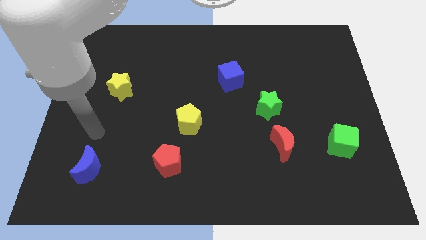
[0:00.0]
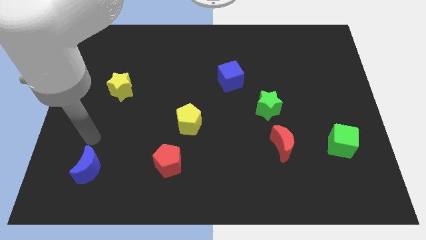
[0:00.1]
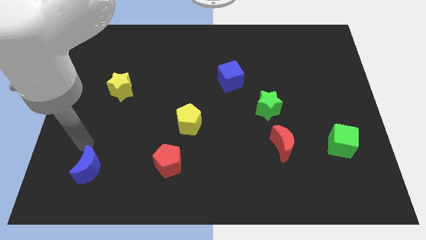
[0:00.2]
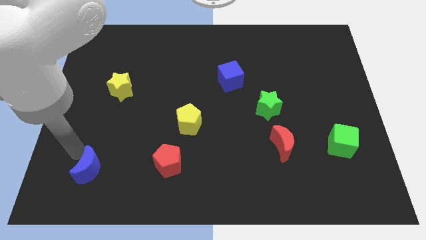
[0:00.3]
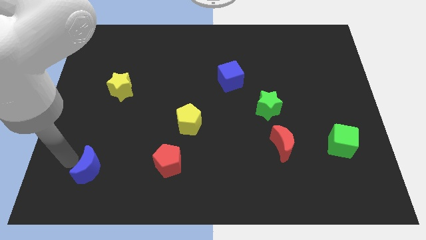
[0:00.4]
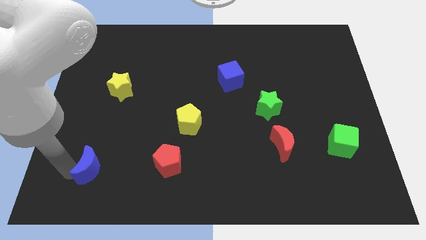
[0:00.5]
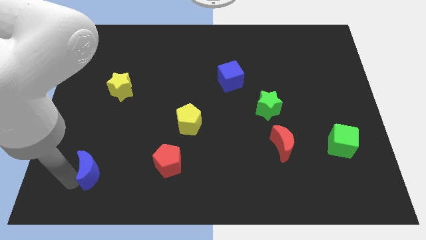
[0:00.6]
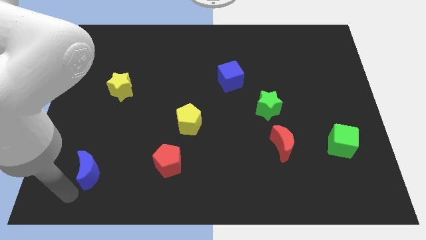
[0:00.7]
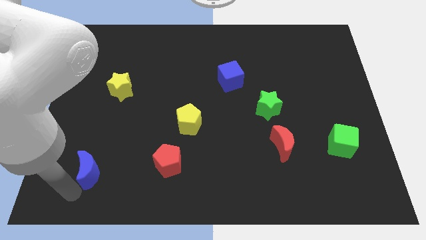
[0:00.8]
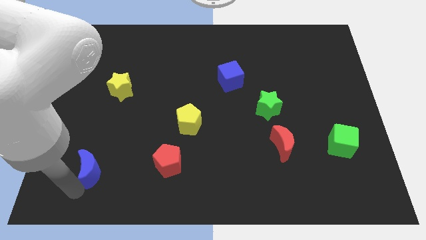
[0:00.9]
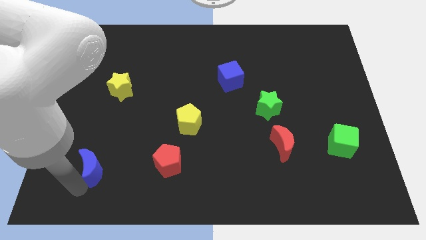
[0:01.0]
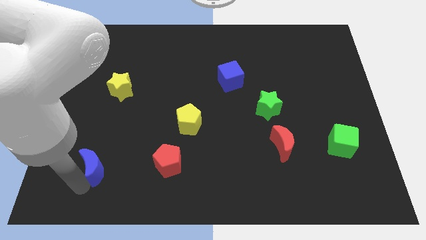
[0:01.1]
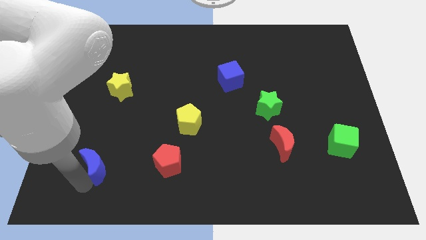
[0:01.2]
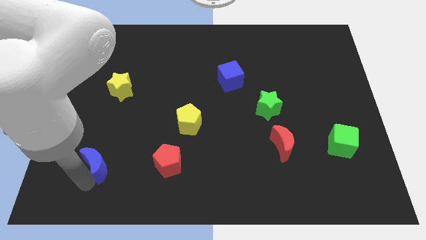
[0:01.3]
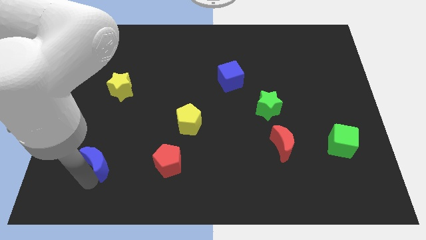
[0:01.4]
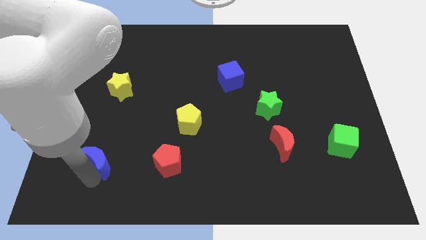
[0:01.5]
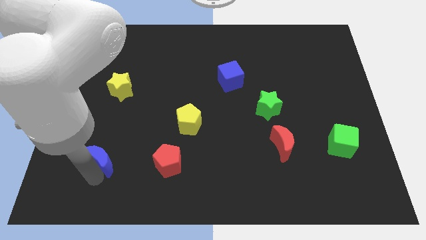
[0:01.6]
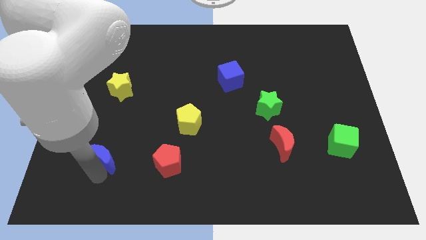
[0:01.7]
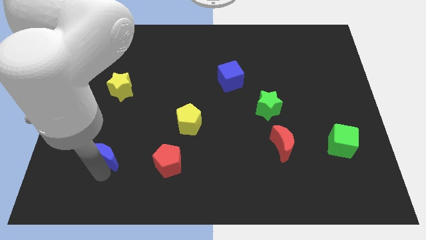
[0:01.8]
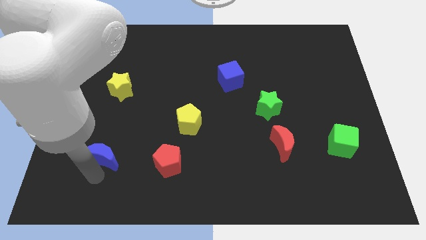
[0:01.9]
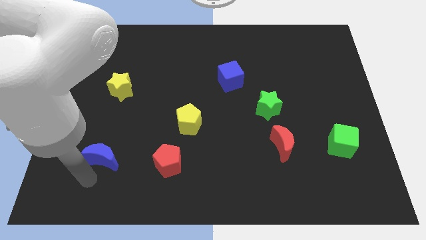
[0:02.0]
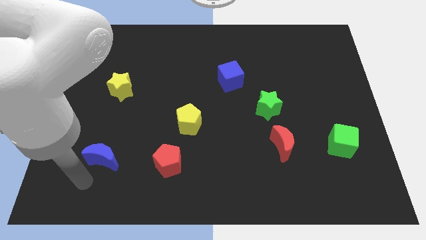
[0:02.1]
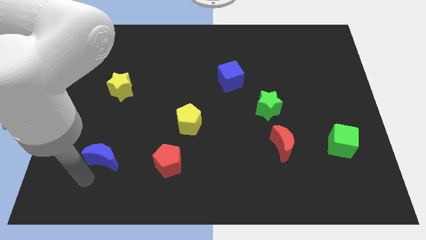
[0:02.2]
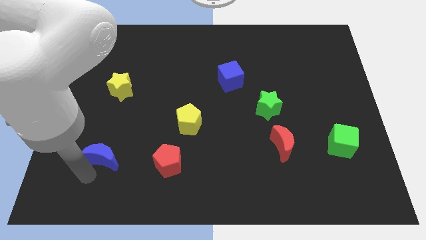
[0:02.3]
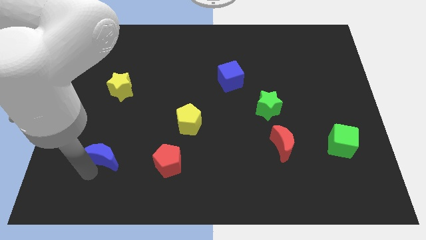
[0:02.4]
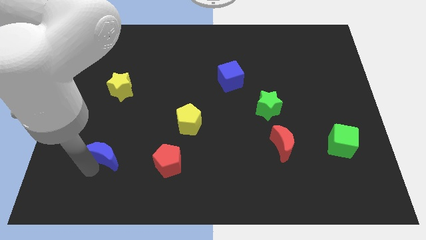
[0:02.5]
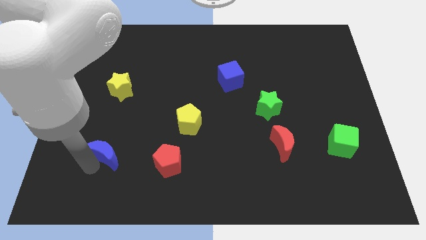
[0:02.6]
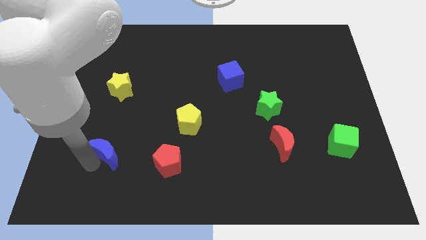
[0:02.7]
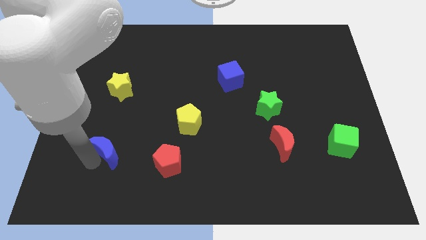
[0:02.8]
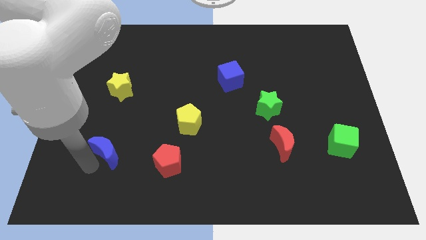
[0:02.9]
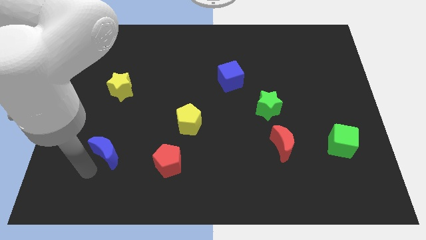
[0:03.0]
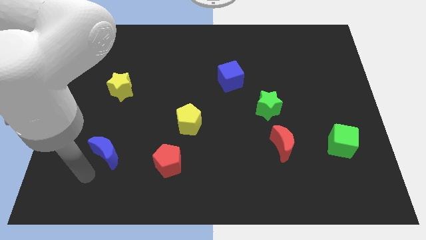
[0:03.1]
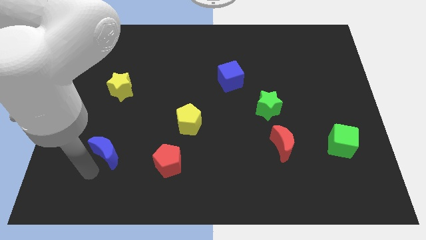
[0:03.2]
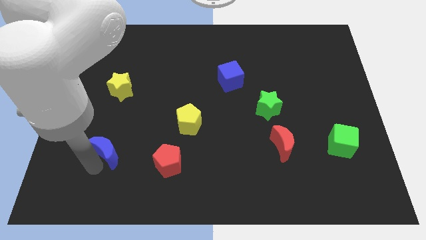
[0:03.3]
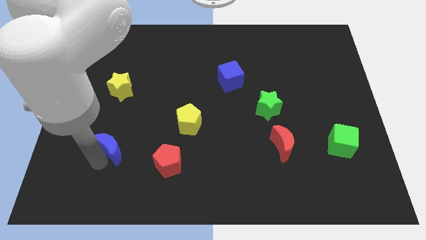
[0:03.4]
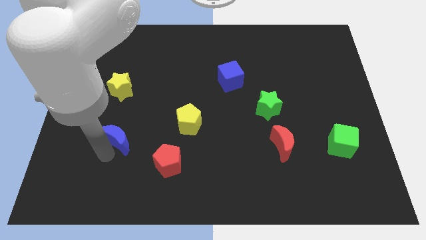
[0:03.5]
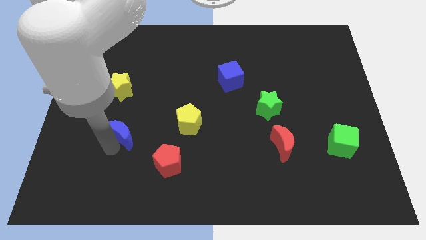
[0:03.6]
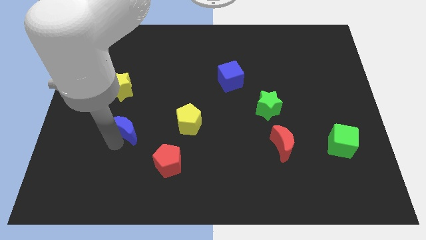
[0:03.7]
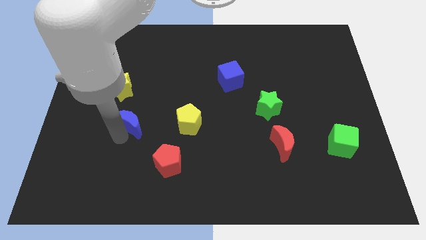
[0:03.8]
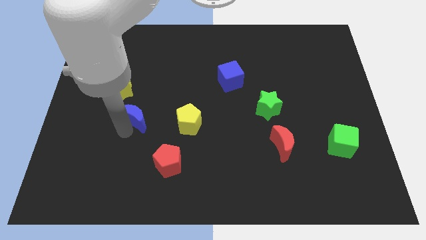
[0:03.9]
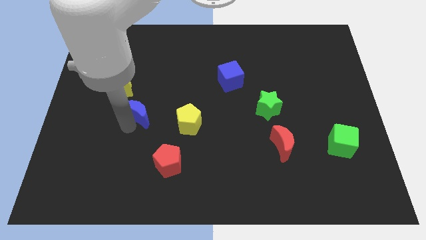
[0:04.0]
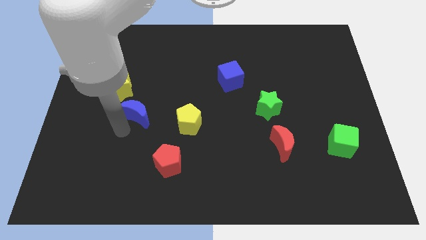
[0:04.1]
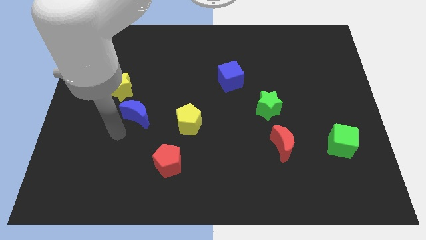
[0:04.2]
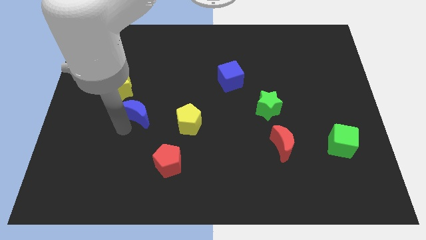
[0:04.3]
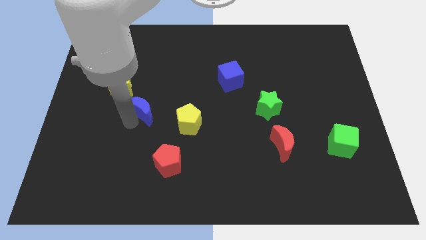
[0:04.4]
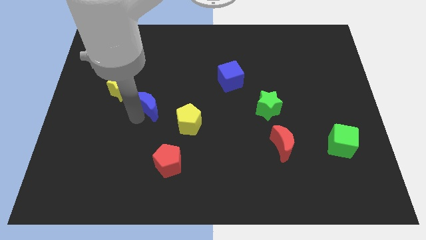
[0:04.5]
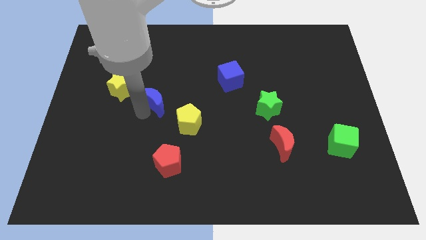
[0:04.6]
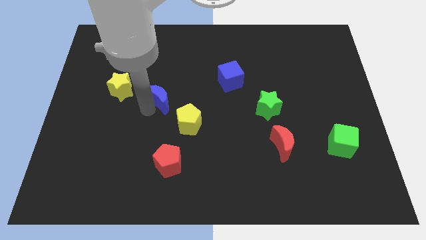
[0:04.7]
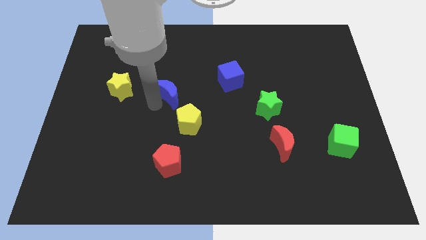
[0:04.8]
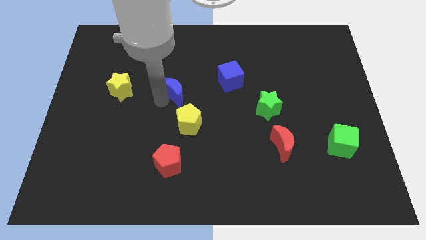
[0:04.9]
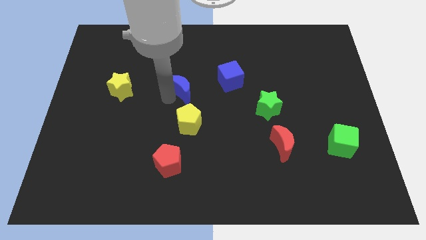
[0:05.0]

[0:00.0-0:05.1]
push the blue moon left of the blue cube

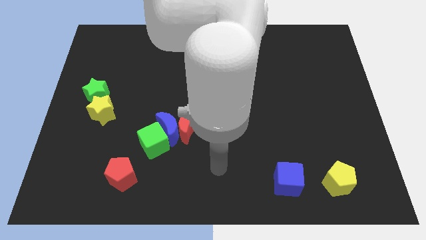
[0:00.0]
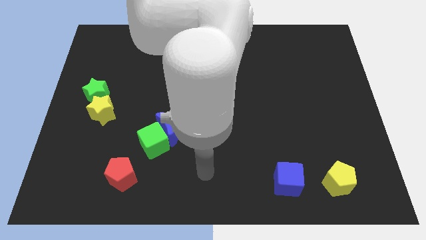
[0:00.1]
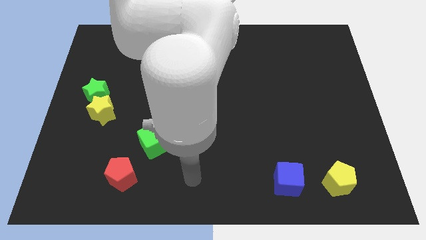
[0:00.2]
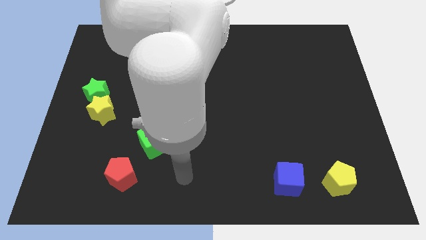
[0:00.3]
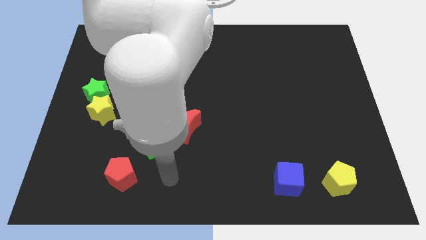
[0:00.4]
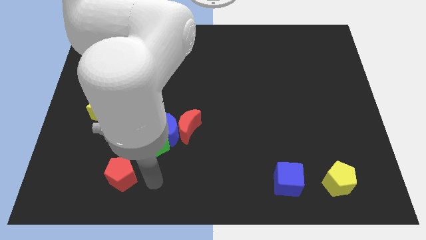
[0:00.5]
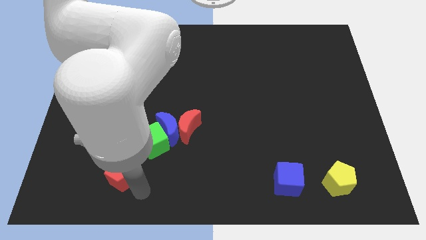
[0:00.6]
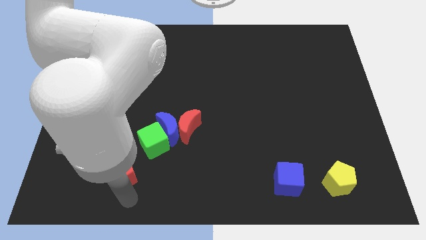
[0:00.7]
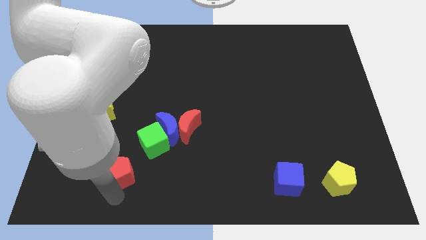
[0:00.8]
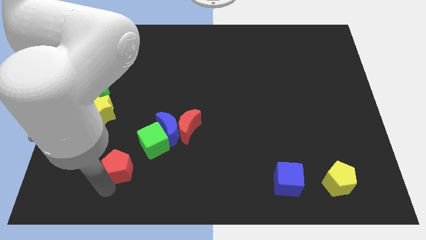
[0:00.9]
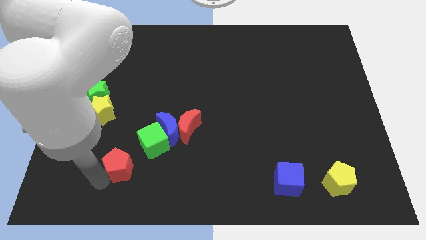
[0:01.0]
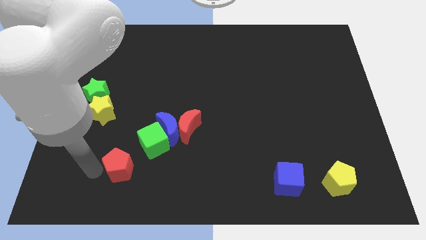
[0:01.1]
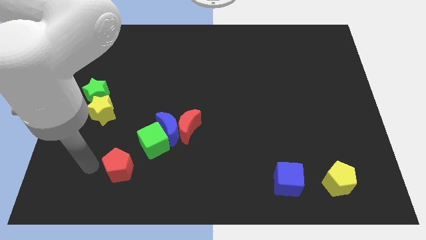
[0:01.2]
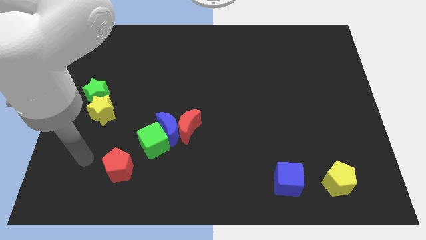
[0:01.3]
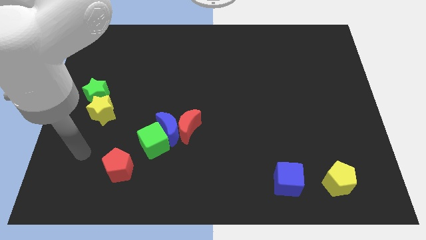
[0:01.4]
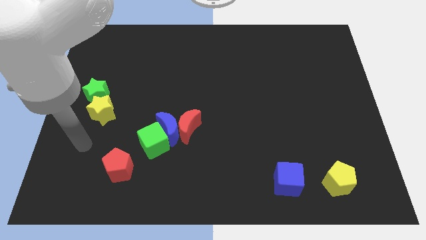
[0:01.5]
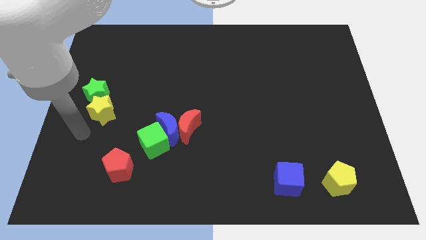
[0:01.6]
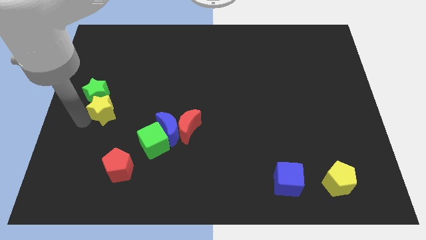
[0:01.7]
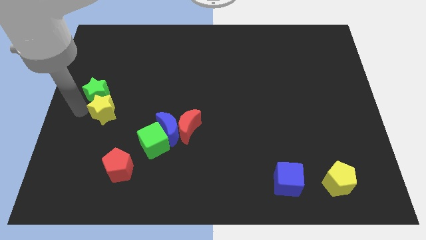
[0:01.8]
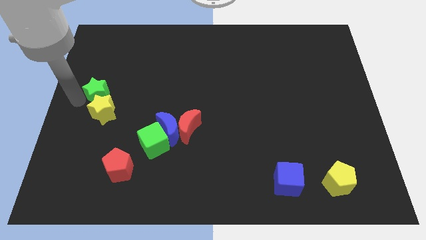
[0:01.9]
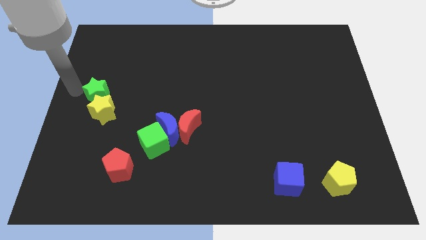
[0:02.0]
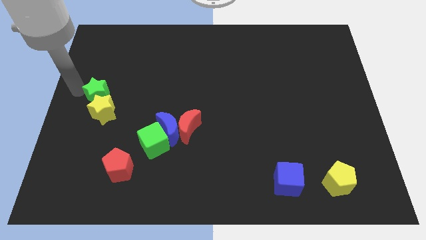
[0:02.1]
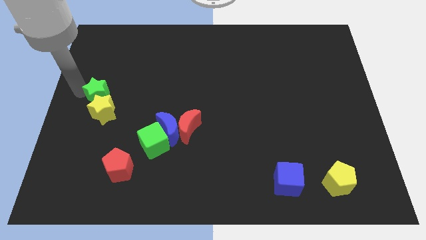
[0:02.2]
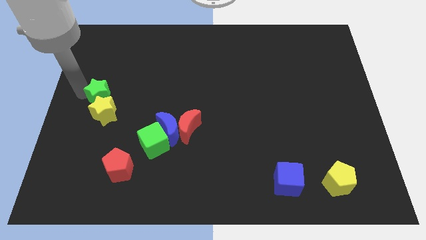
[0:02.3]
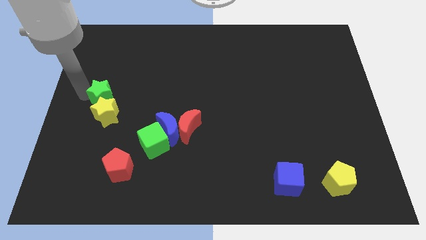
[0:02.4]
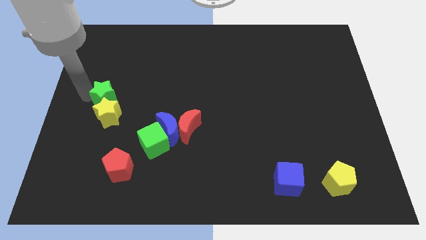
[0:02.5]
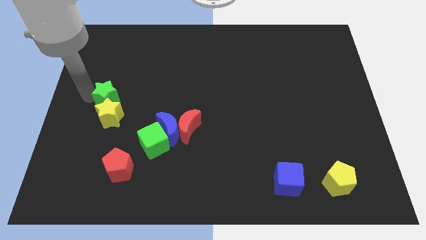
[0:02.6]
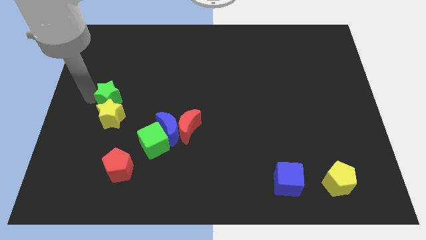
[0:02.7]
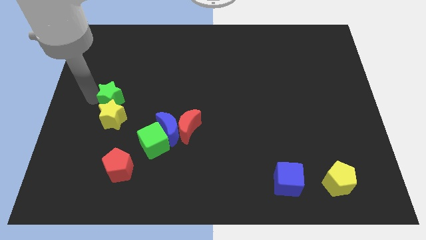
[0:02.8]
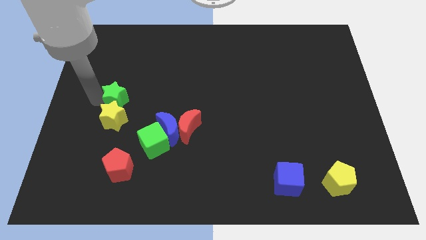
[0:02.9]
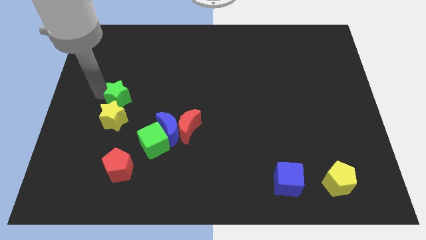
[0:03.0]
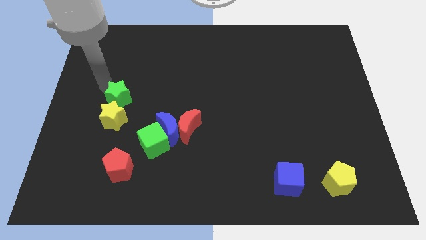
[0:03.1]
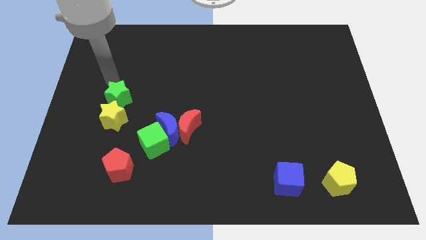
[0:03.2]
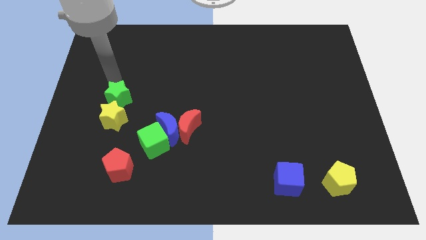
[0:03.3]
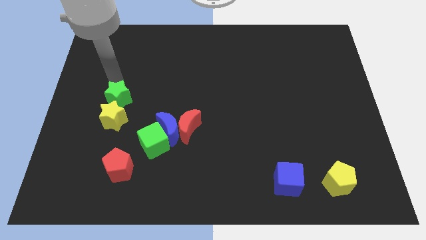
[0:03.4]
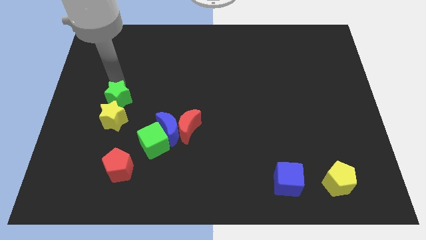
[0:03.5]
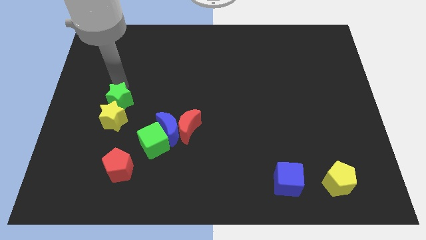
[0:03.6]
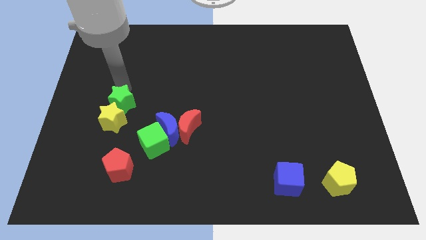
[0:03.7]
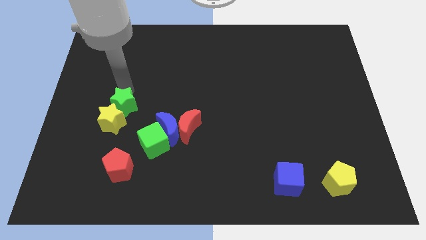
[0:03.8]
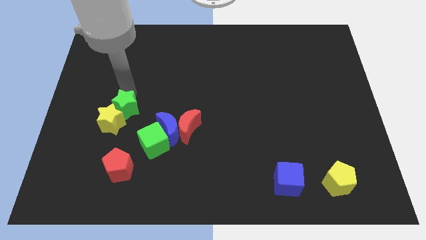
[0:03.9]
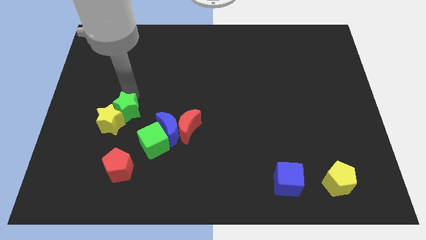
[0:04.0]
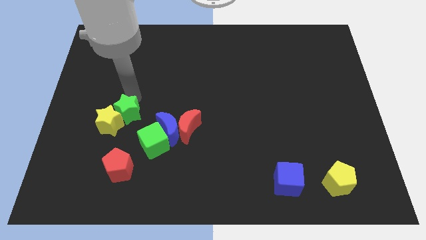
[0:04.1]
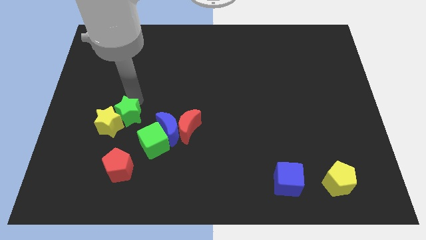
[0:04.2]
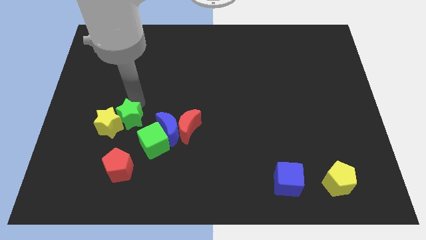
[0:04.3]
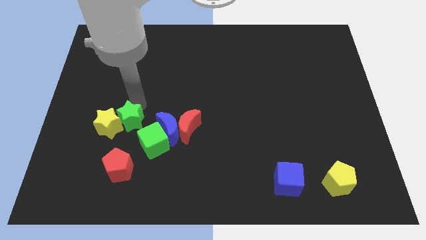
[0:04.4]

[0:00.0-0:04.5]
move the green star to the bottom right of the yellow star
